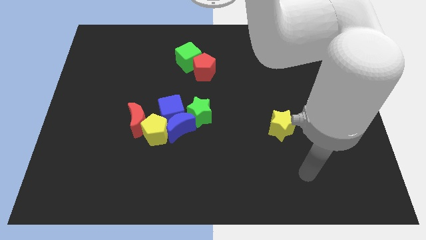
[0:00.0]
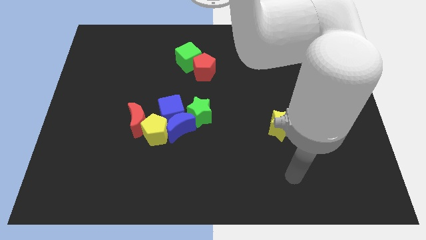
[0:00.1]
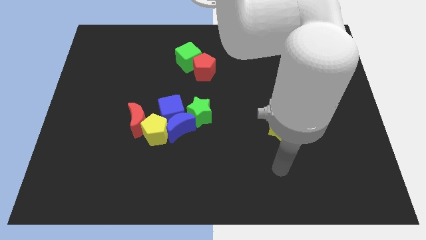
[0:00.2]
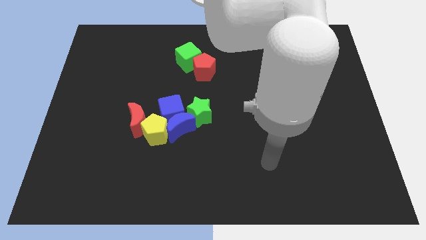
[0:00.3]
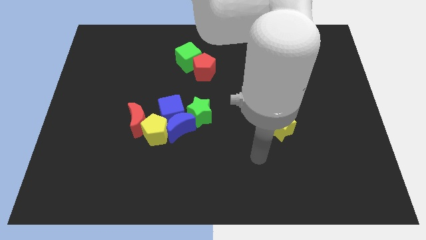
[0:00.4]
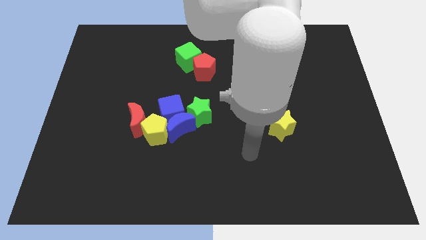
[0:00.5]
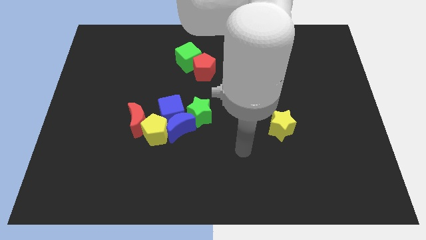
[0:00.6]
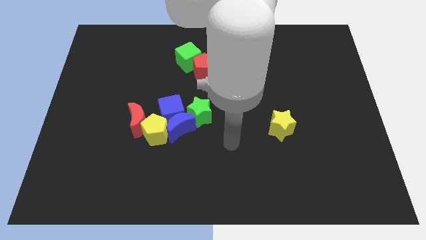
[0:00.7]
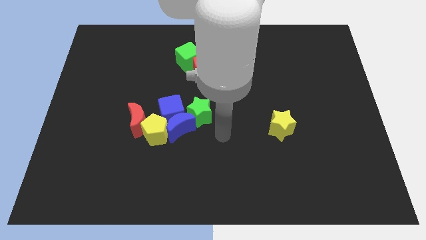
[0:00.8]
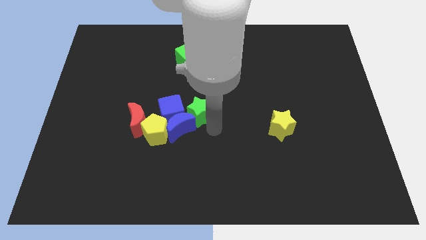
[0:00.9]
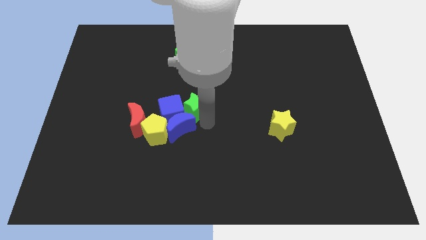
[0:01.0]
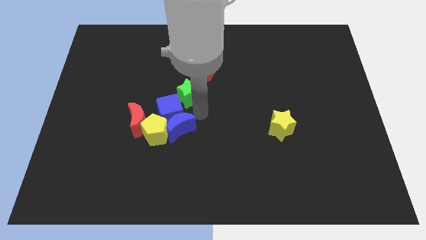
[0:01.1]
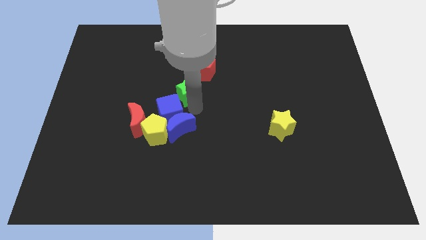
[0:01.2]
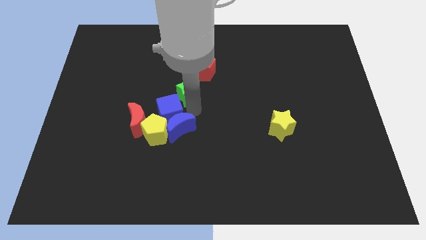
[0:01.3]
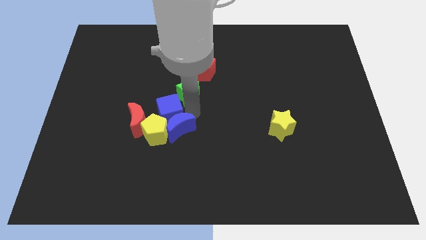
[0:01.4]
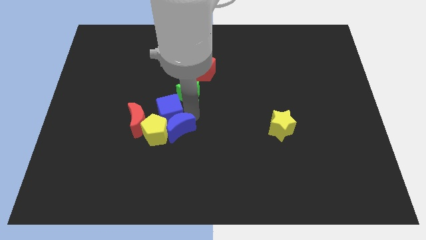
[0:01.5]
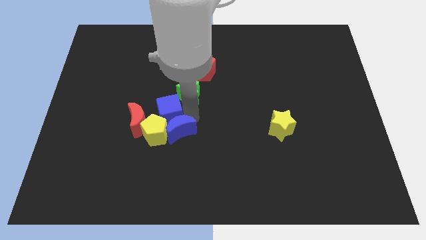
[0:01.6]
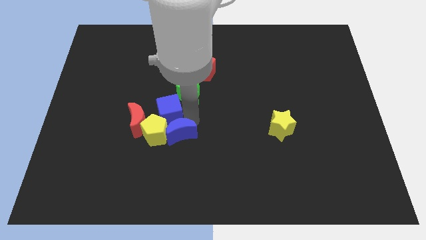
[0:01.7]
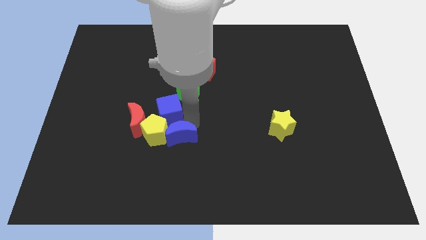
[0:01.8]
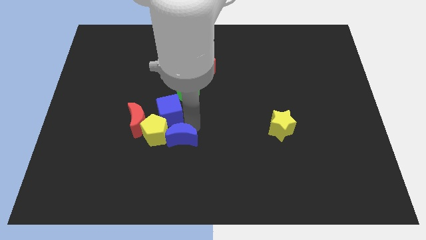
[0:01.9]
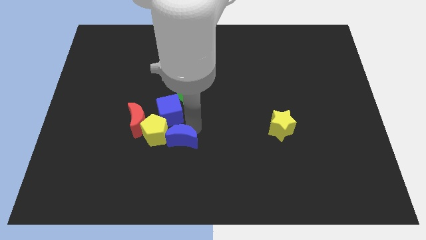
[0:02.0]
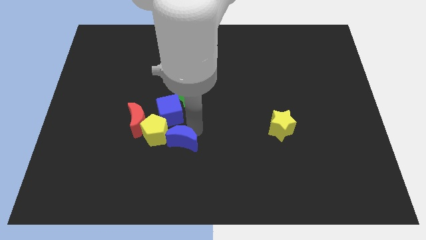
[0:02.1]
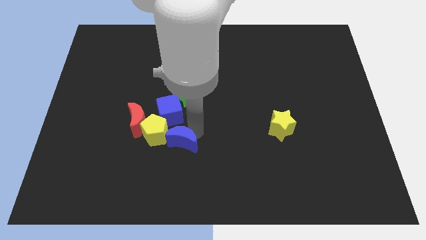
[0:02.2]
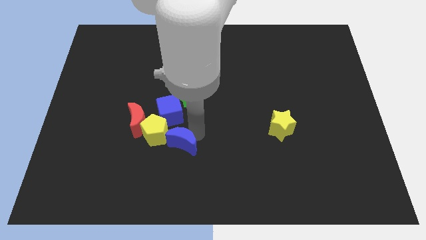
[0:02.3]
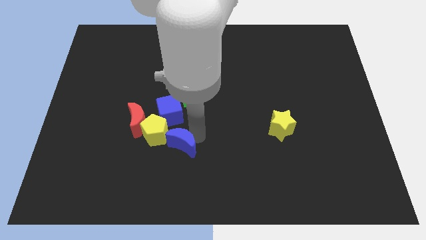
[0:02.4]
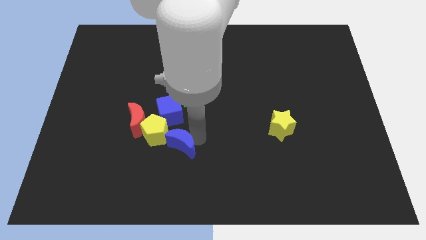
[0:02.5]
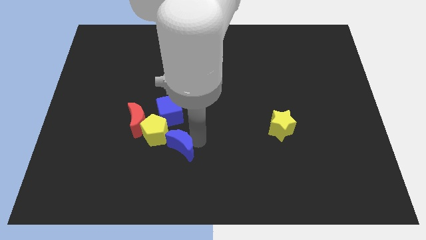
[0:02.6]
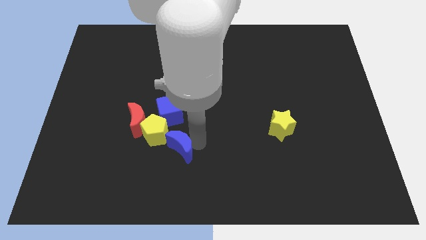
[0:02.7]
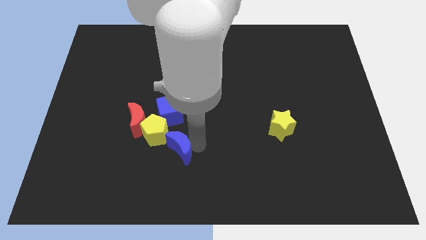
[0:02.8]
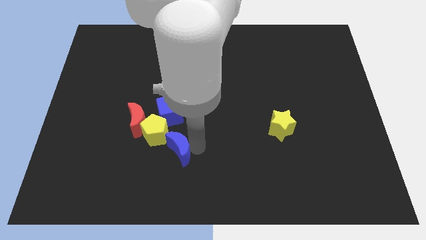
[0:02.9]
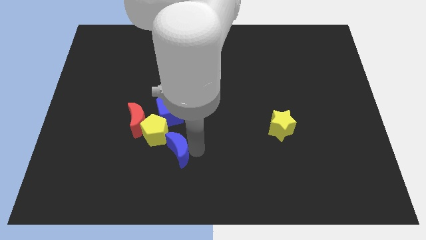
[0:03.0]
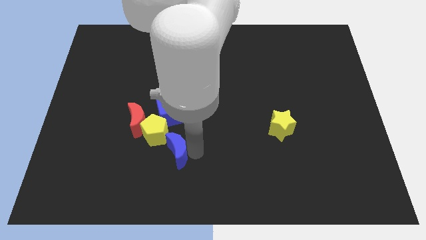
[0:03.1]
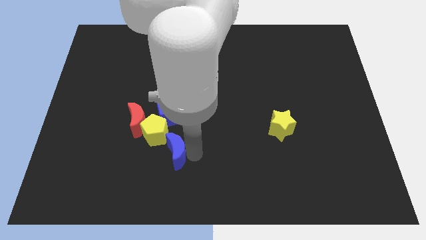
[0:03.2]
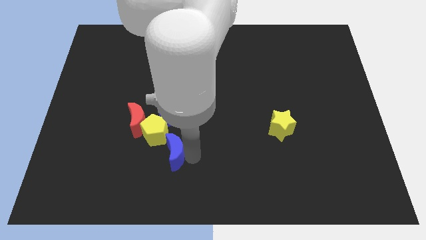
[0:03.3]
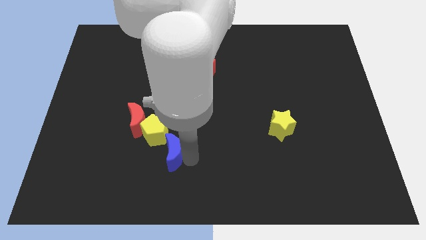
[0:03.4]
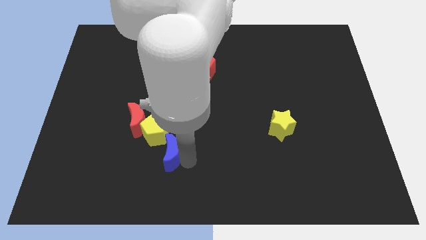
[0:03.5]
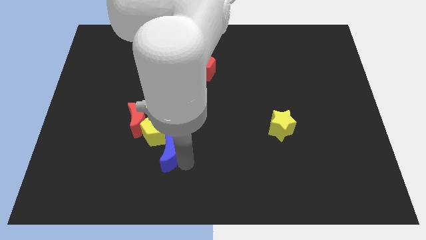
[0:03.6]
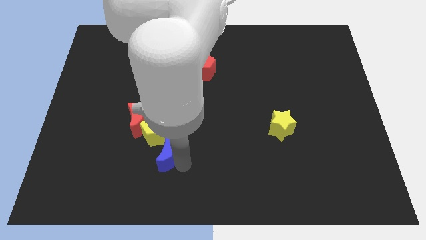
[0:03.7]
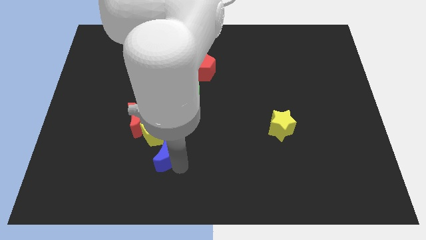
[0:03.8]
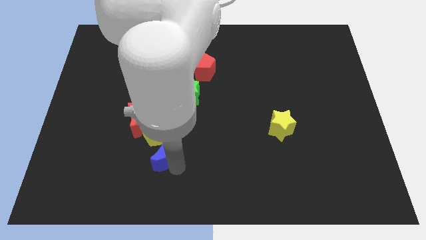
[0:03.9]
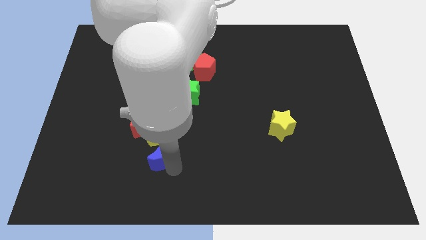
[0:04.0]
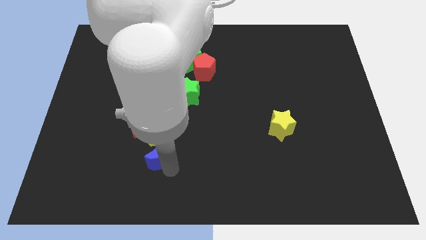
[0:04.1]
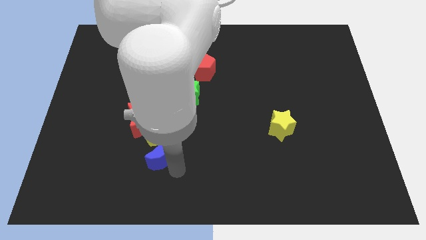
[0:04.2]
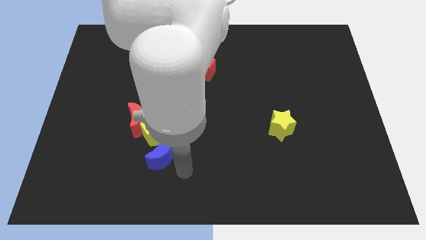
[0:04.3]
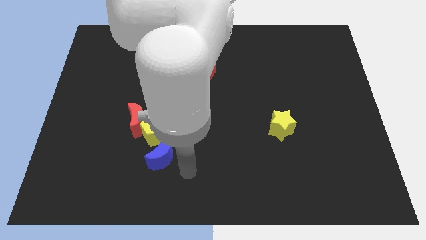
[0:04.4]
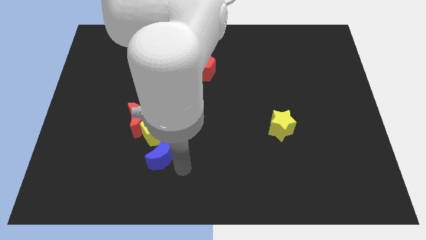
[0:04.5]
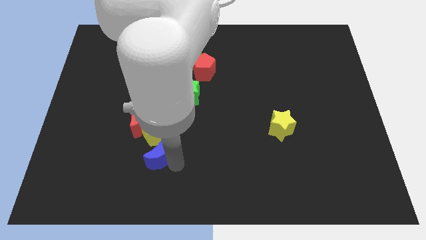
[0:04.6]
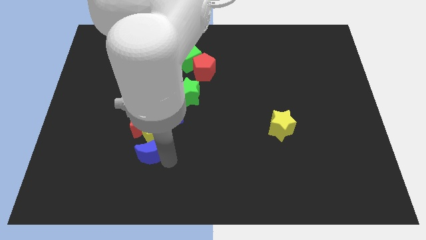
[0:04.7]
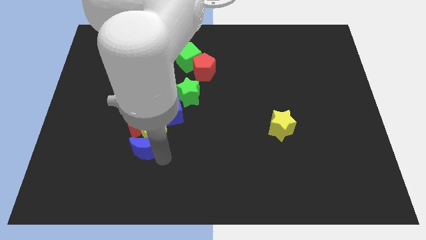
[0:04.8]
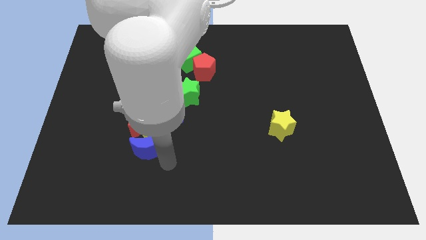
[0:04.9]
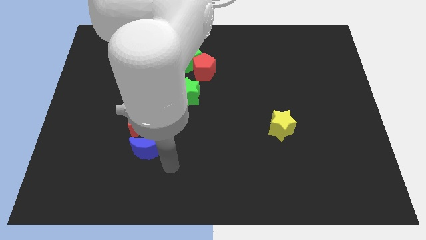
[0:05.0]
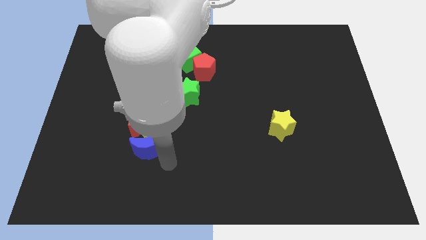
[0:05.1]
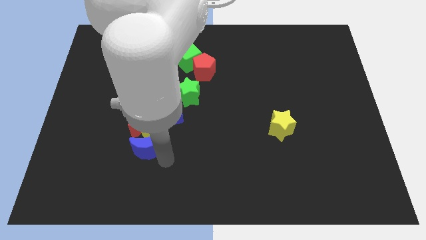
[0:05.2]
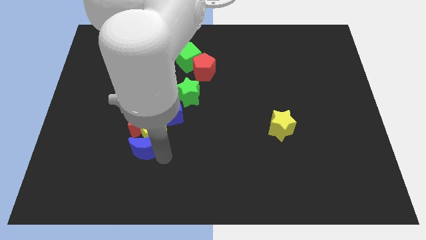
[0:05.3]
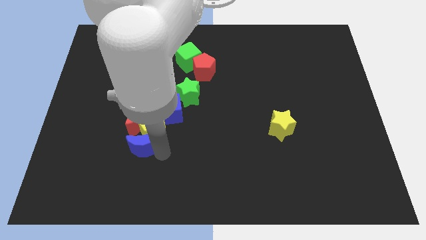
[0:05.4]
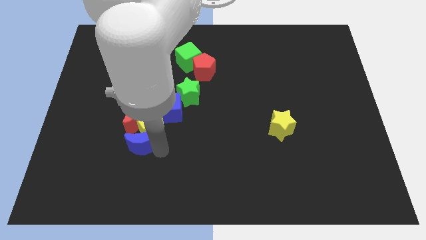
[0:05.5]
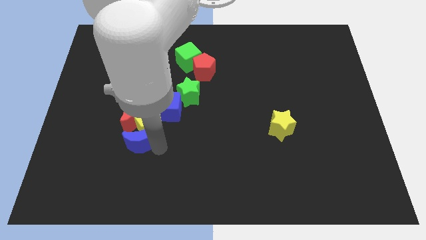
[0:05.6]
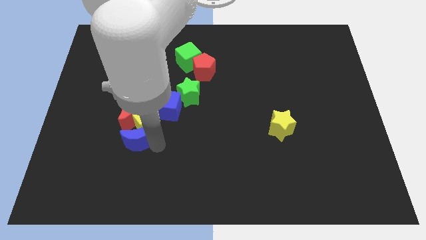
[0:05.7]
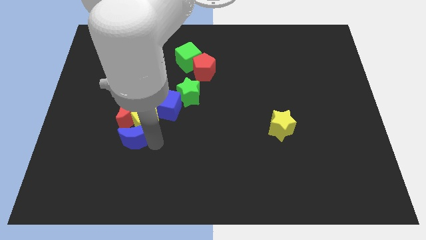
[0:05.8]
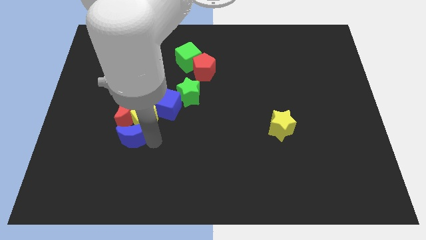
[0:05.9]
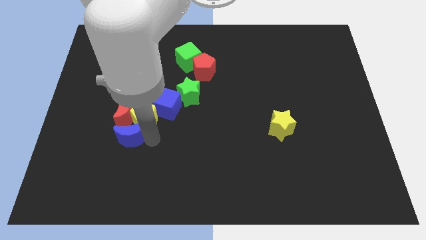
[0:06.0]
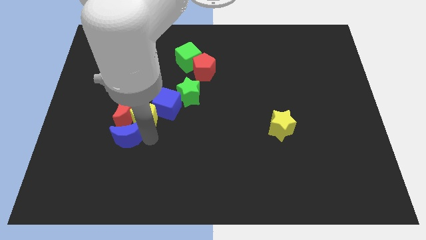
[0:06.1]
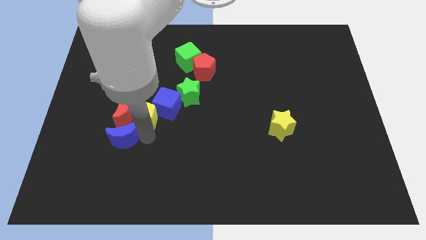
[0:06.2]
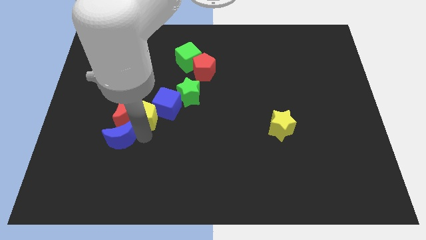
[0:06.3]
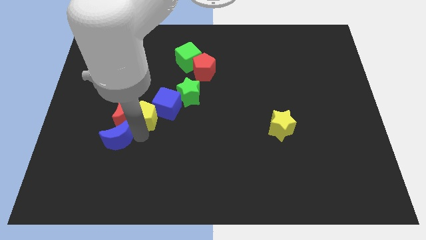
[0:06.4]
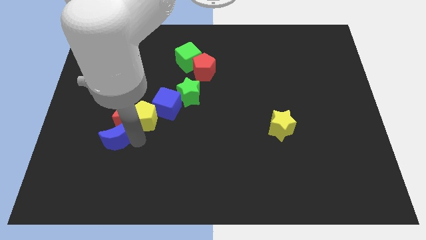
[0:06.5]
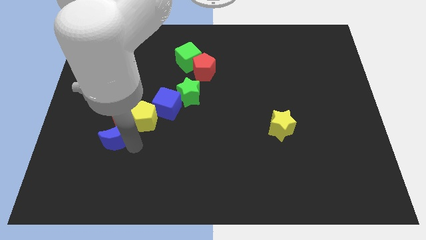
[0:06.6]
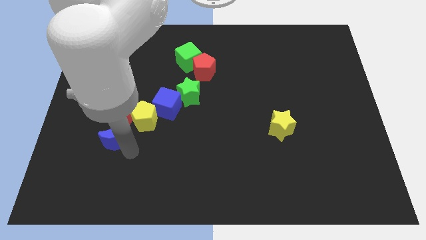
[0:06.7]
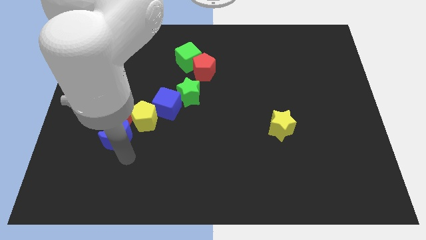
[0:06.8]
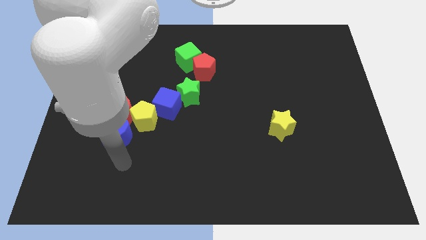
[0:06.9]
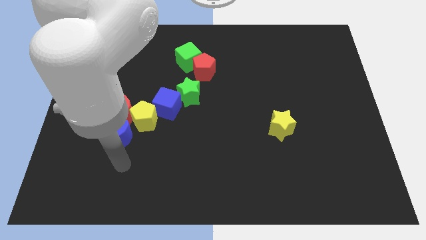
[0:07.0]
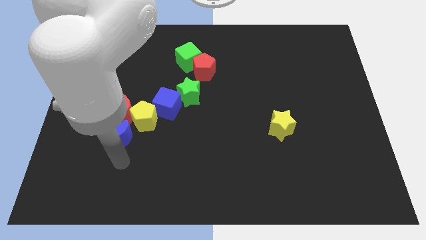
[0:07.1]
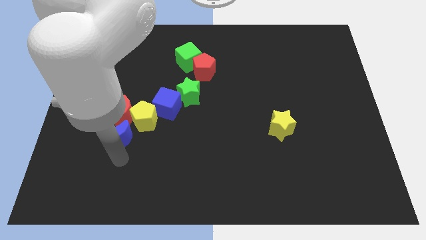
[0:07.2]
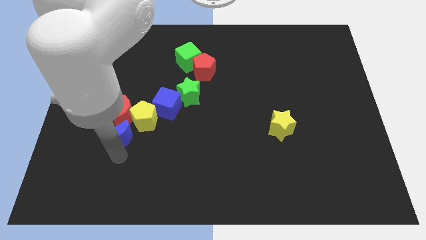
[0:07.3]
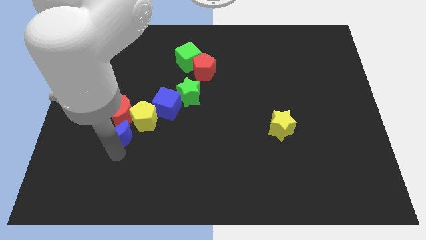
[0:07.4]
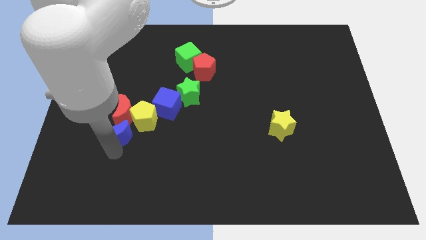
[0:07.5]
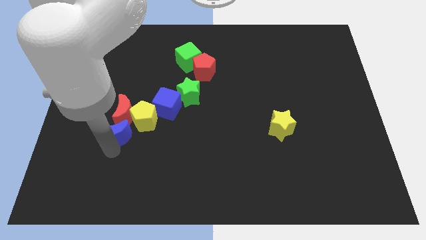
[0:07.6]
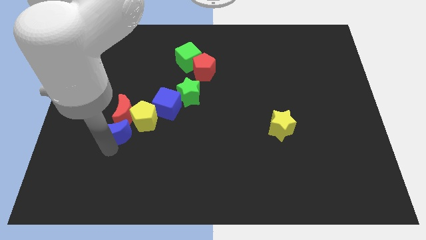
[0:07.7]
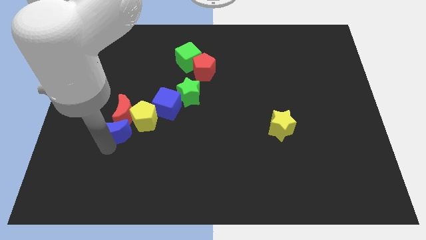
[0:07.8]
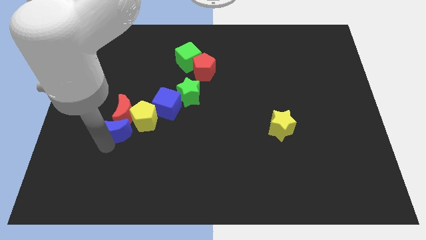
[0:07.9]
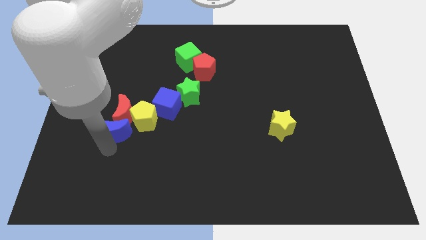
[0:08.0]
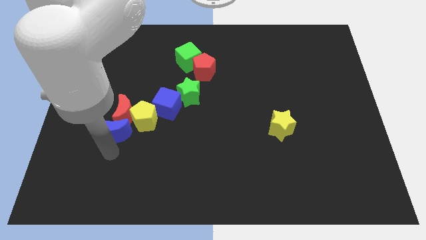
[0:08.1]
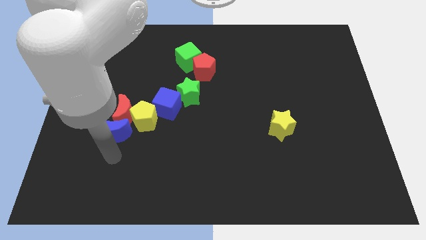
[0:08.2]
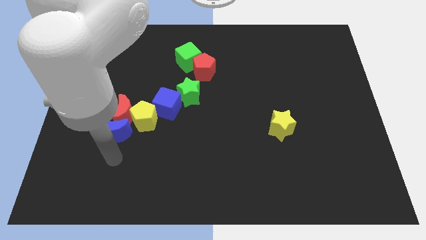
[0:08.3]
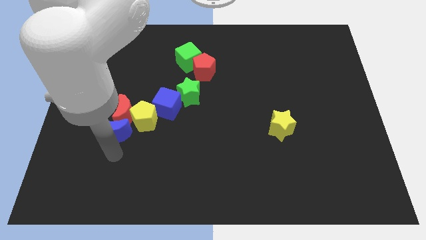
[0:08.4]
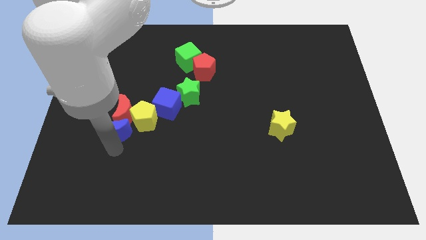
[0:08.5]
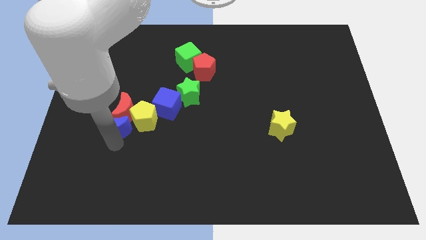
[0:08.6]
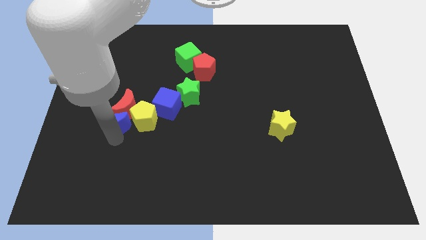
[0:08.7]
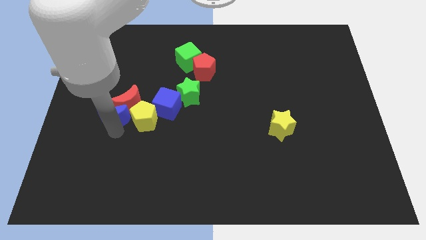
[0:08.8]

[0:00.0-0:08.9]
slide the blue moon a little bit up and to the left
